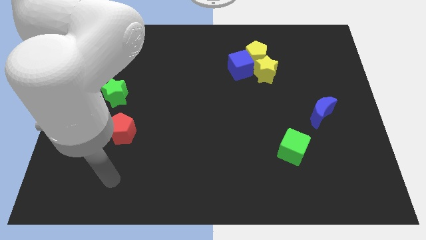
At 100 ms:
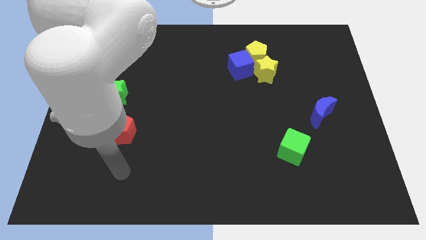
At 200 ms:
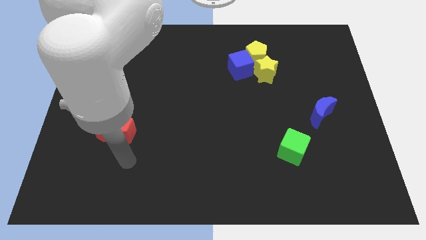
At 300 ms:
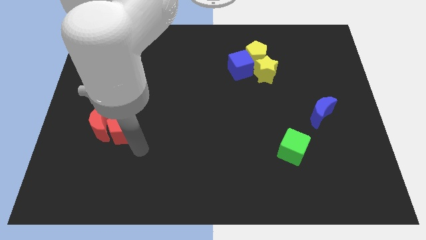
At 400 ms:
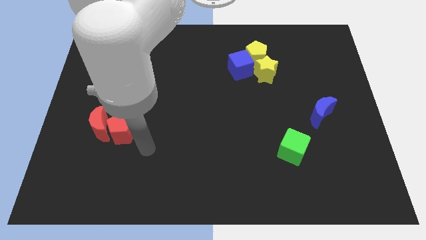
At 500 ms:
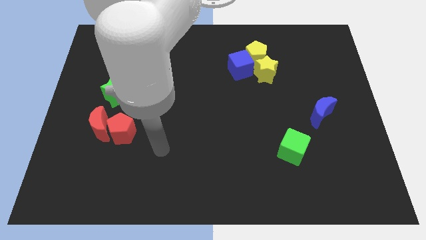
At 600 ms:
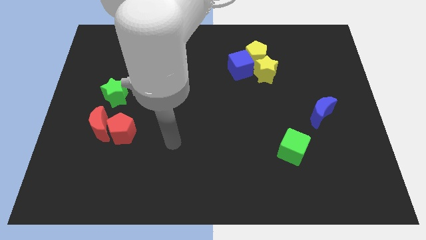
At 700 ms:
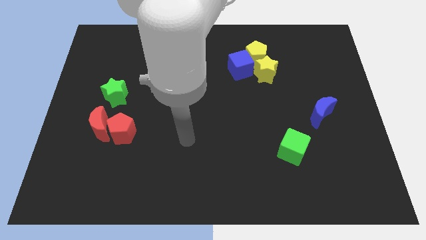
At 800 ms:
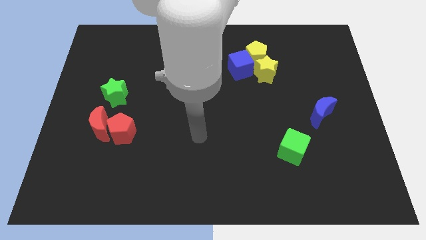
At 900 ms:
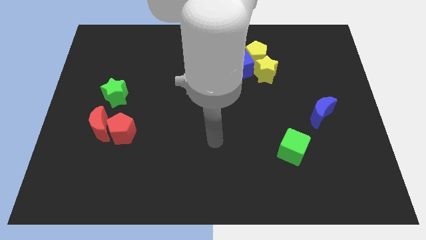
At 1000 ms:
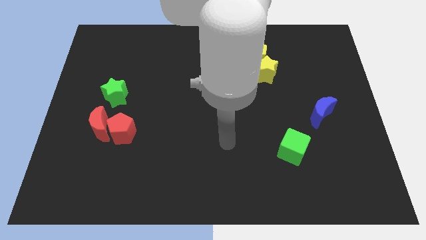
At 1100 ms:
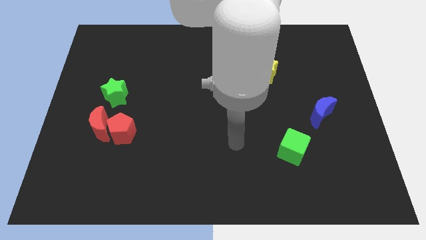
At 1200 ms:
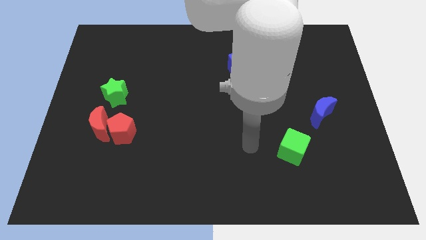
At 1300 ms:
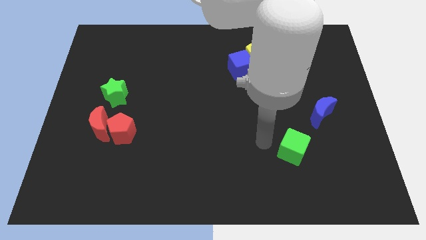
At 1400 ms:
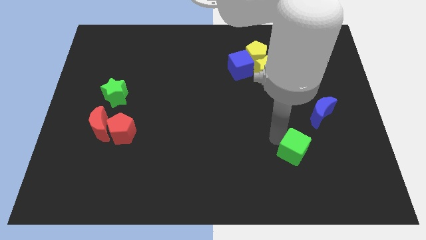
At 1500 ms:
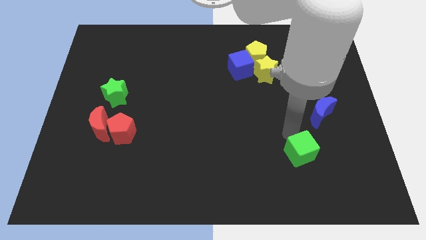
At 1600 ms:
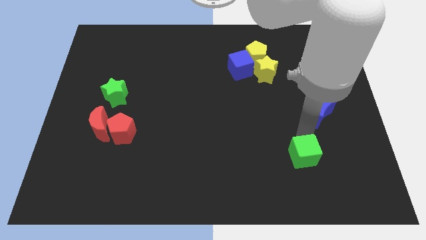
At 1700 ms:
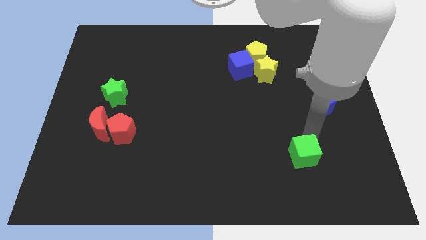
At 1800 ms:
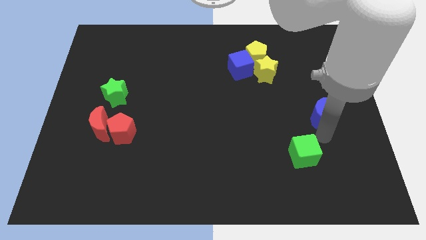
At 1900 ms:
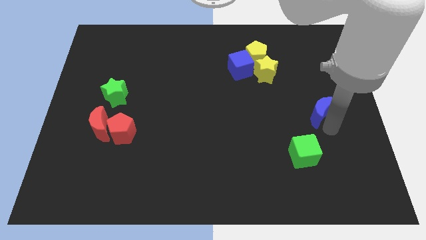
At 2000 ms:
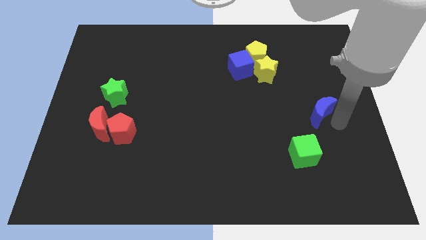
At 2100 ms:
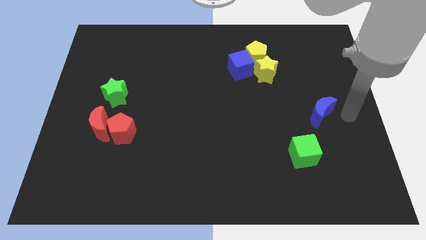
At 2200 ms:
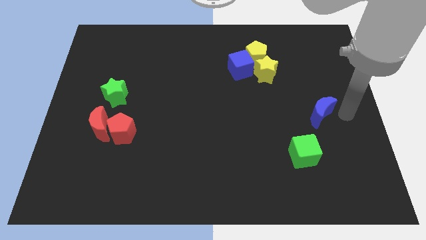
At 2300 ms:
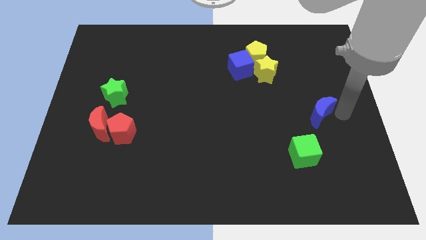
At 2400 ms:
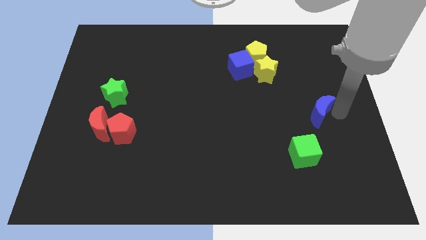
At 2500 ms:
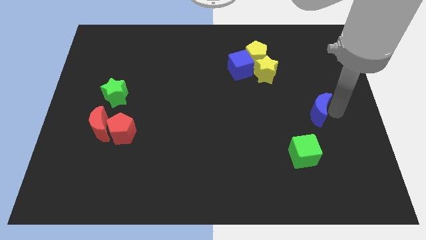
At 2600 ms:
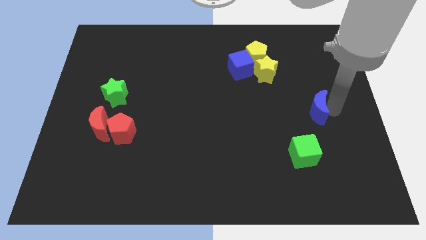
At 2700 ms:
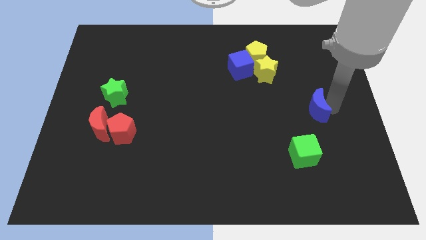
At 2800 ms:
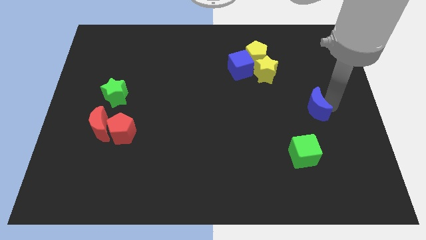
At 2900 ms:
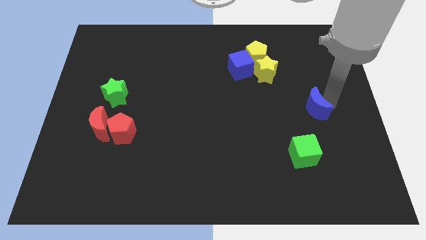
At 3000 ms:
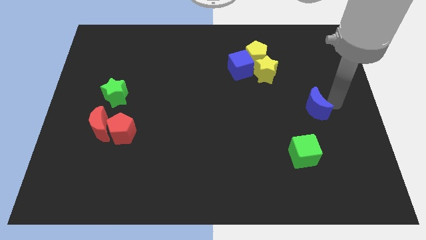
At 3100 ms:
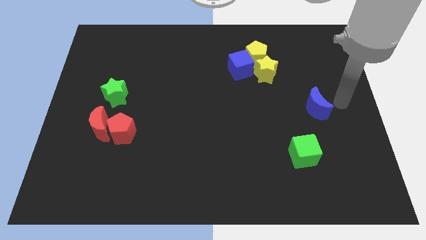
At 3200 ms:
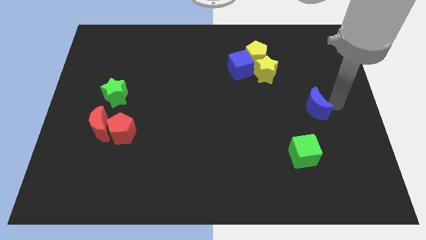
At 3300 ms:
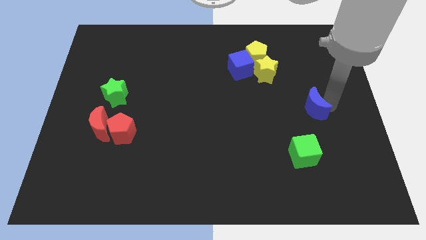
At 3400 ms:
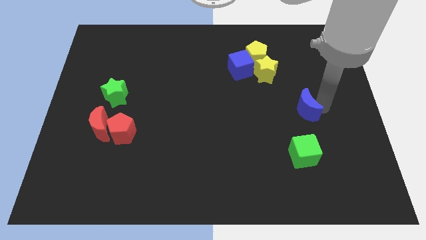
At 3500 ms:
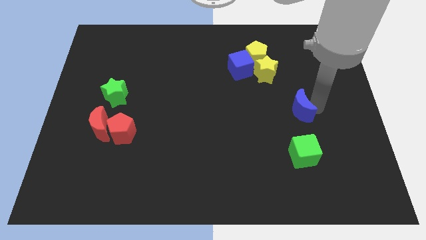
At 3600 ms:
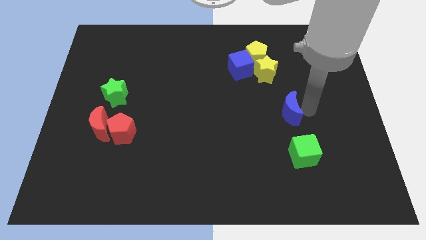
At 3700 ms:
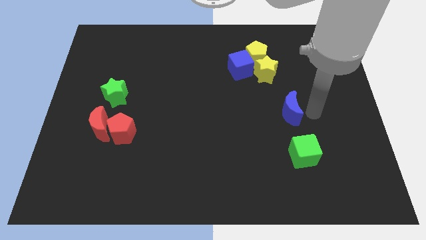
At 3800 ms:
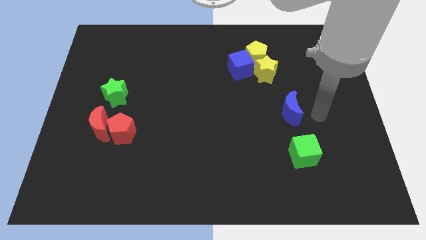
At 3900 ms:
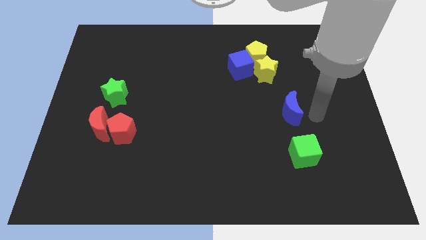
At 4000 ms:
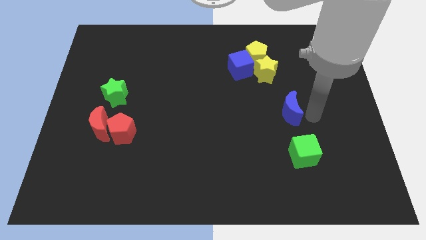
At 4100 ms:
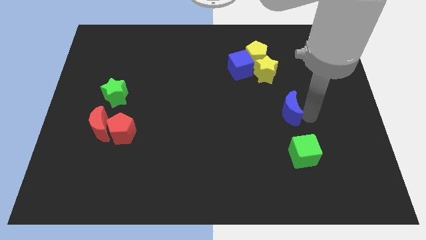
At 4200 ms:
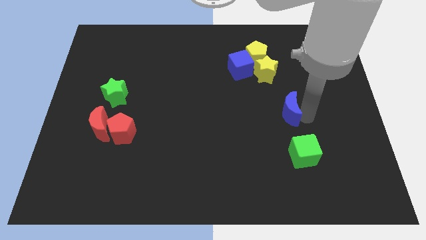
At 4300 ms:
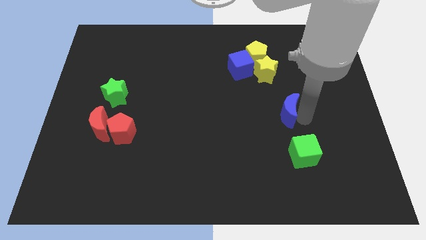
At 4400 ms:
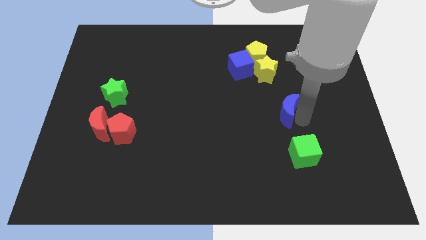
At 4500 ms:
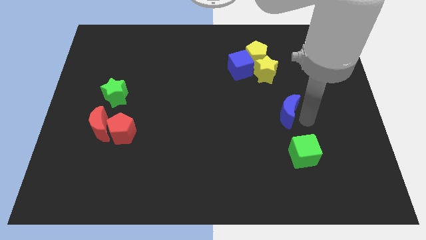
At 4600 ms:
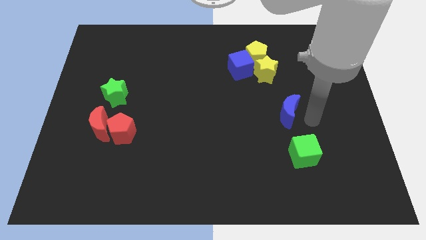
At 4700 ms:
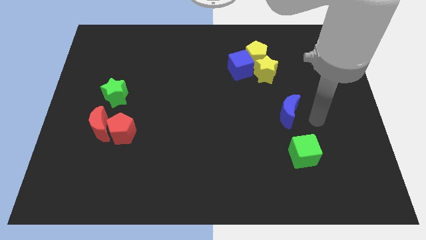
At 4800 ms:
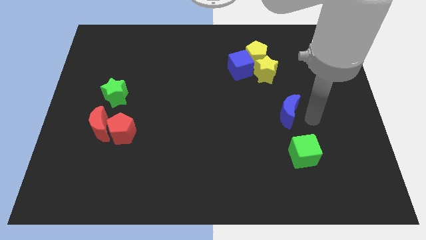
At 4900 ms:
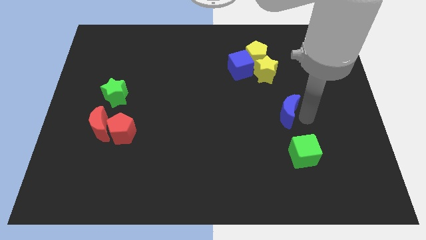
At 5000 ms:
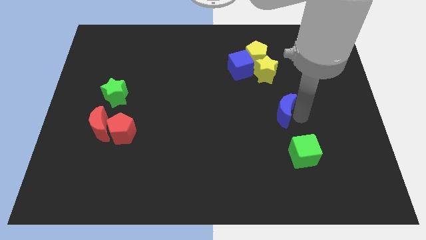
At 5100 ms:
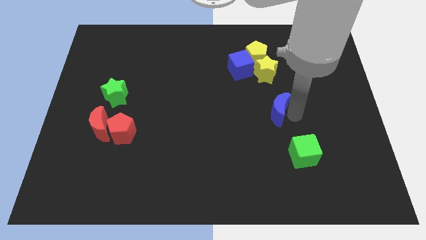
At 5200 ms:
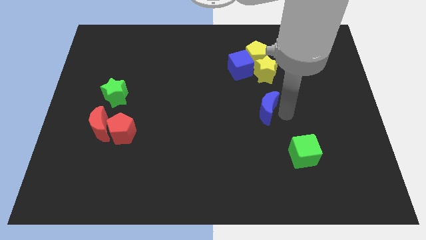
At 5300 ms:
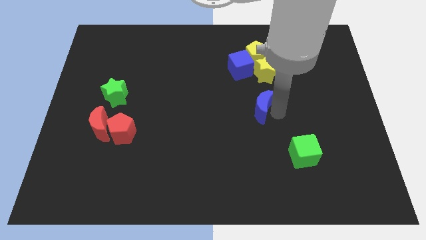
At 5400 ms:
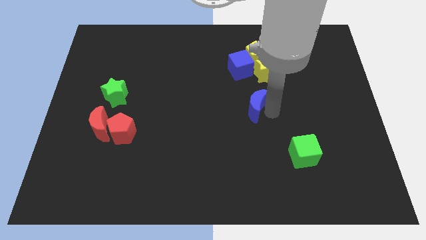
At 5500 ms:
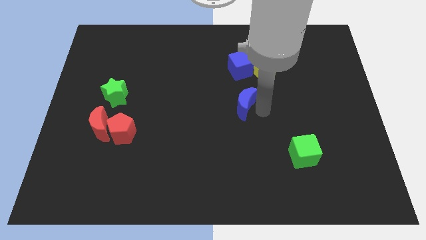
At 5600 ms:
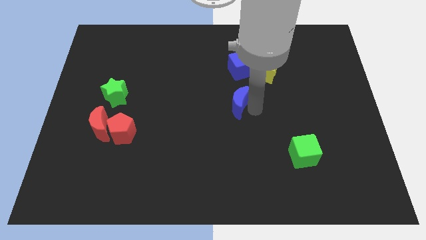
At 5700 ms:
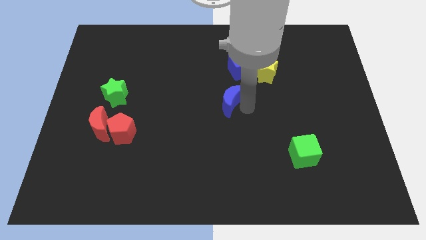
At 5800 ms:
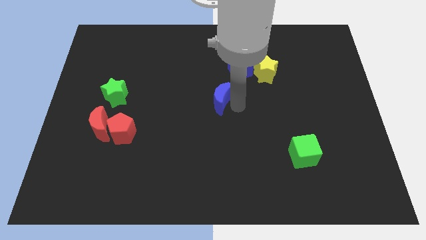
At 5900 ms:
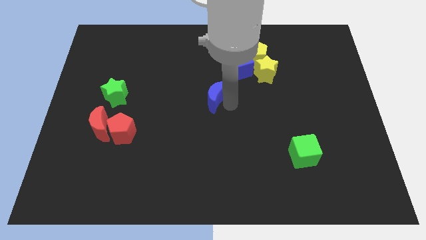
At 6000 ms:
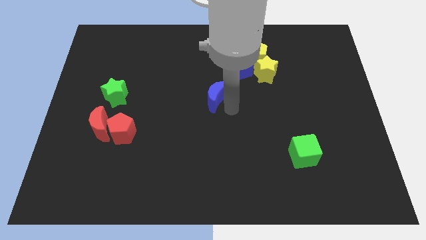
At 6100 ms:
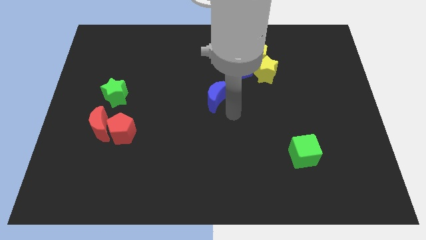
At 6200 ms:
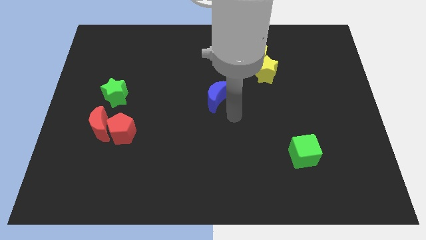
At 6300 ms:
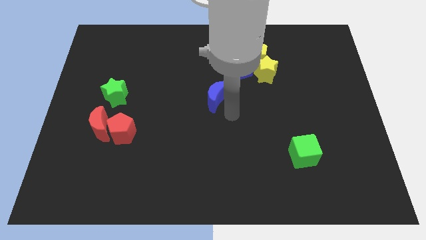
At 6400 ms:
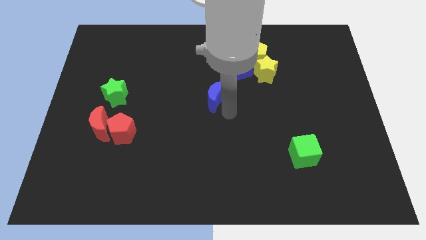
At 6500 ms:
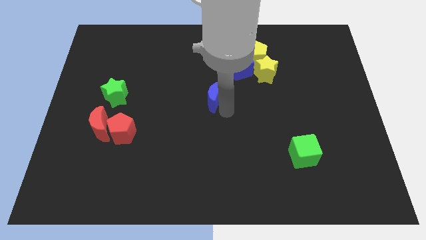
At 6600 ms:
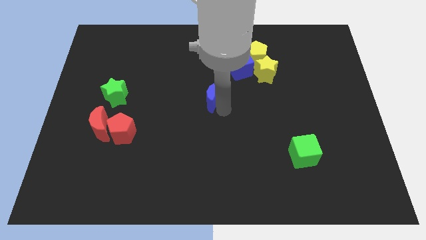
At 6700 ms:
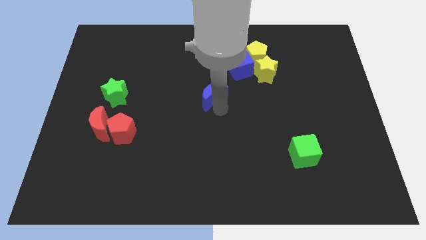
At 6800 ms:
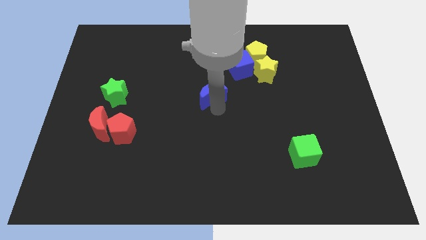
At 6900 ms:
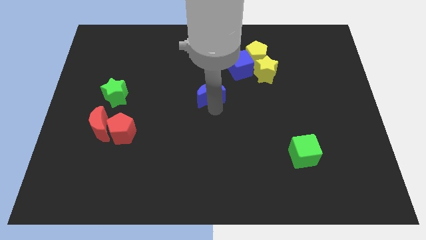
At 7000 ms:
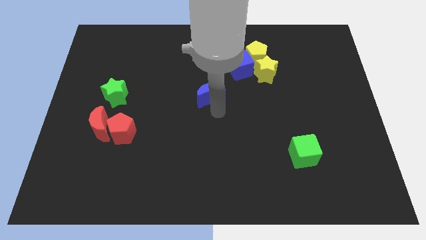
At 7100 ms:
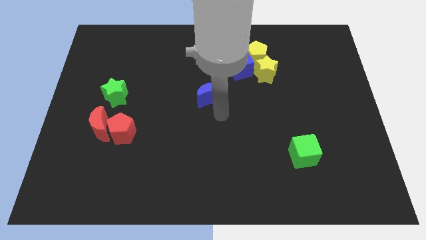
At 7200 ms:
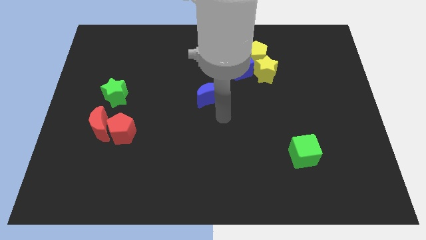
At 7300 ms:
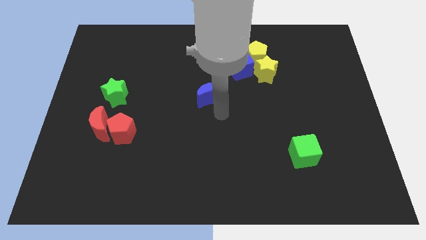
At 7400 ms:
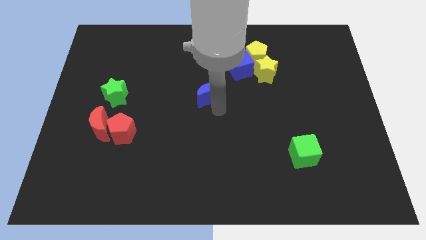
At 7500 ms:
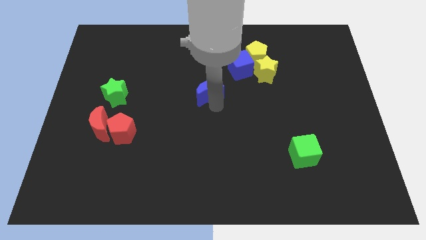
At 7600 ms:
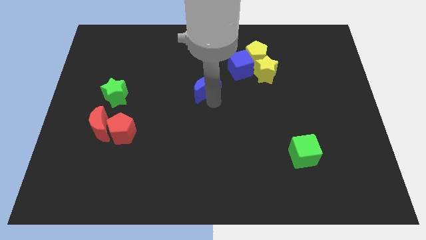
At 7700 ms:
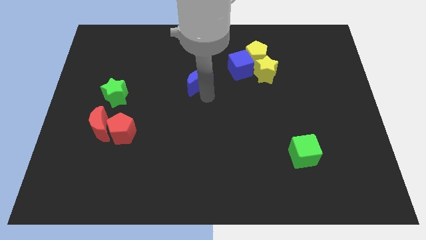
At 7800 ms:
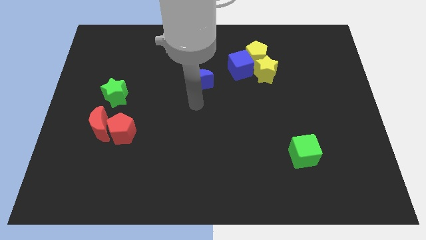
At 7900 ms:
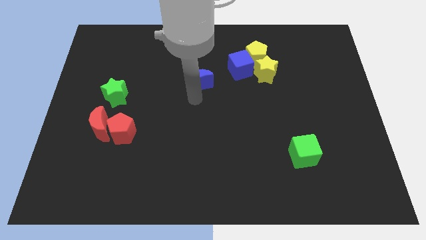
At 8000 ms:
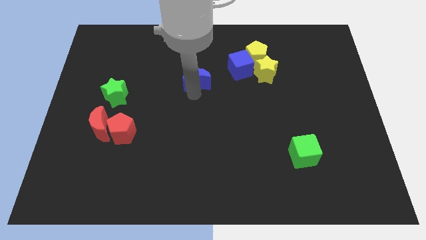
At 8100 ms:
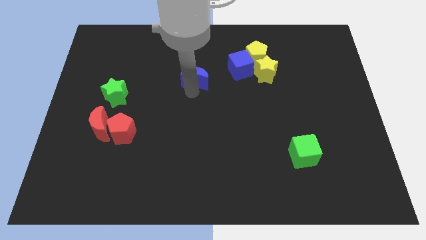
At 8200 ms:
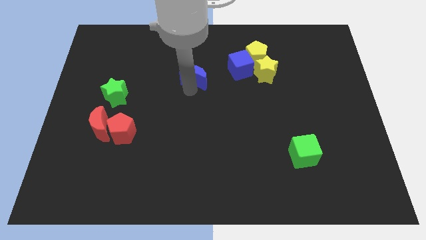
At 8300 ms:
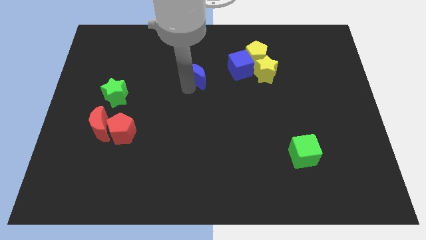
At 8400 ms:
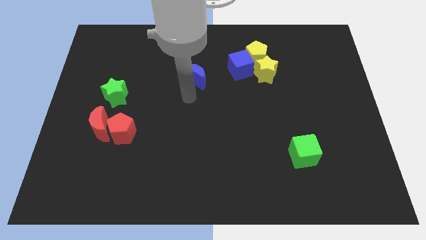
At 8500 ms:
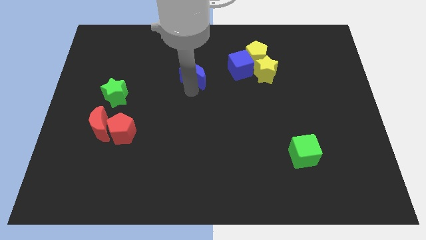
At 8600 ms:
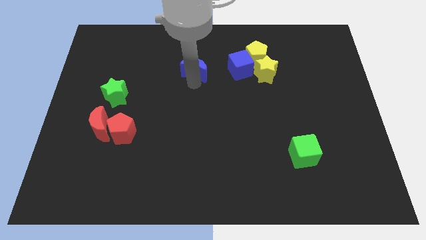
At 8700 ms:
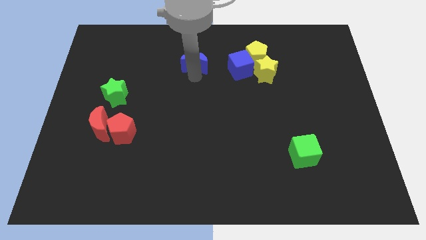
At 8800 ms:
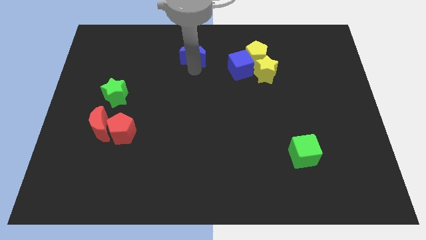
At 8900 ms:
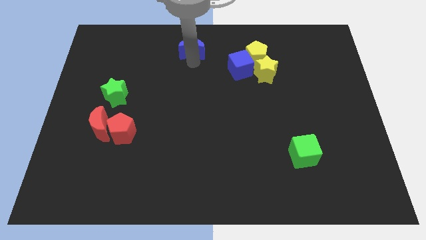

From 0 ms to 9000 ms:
push the blue moon to the towards your base
